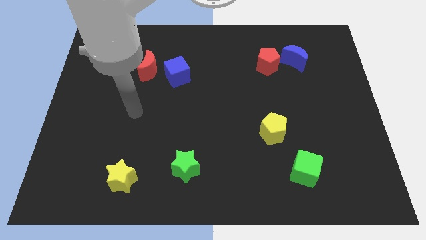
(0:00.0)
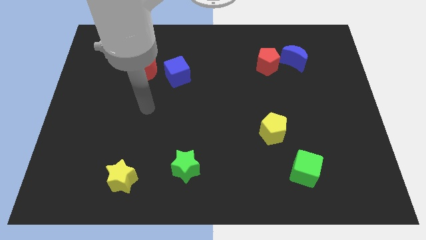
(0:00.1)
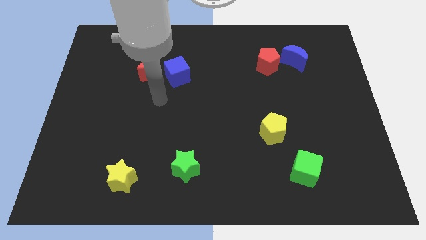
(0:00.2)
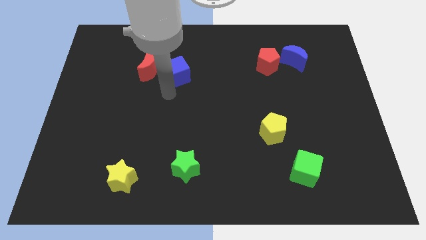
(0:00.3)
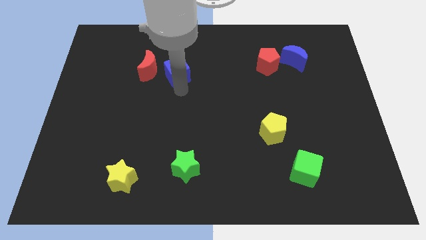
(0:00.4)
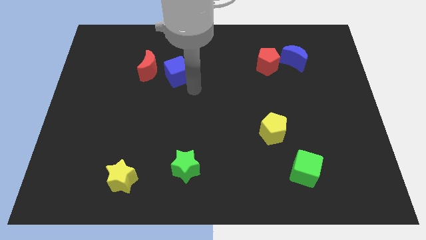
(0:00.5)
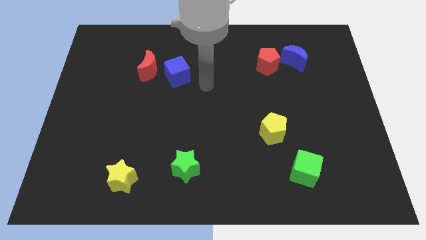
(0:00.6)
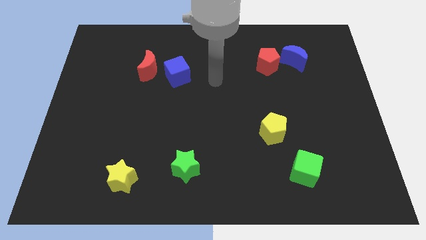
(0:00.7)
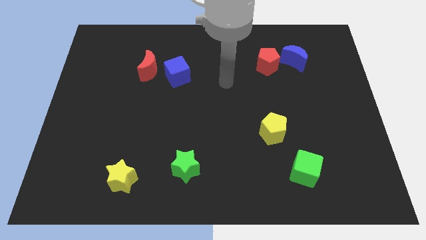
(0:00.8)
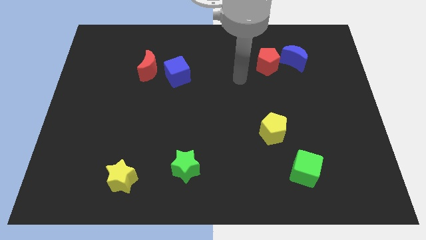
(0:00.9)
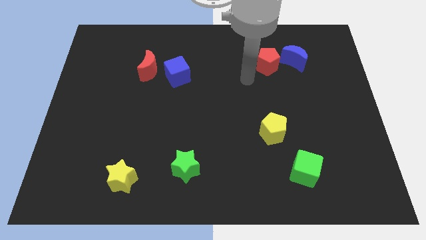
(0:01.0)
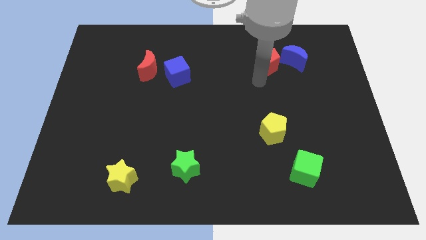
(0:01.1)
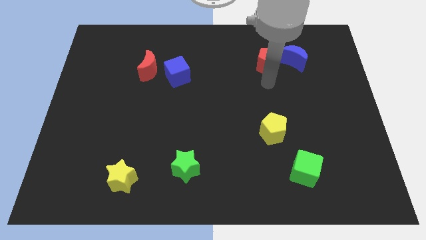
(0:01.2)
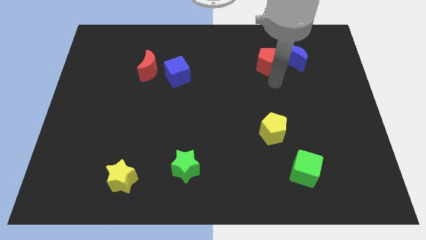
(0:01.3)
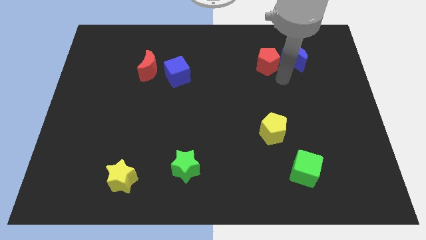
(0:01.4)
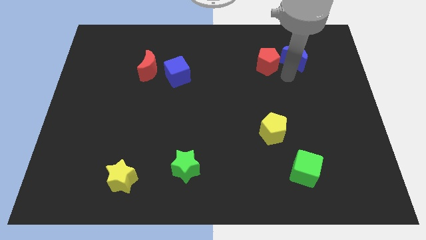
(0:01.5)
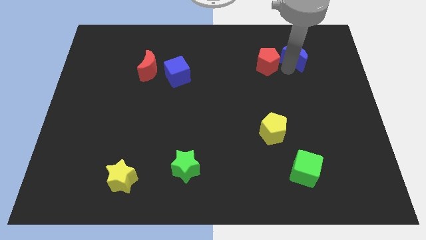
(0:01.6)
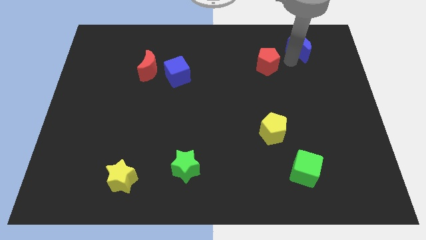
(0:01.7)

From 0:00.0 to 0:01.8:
pull the red pentagon apart from the blue moon

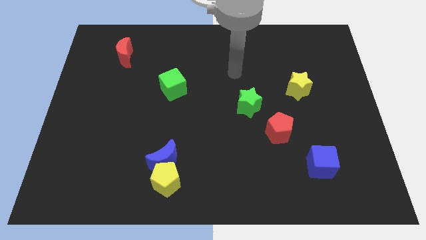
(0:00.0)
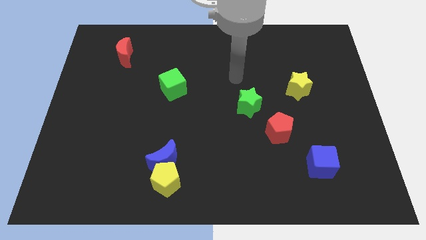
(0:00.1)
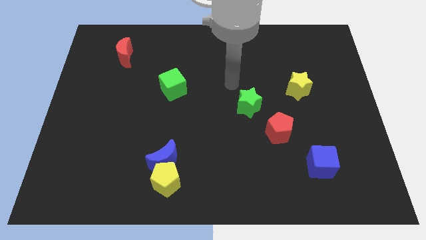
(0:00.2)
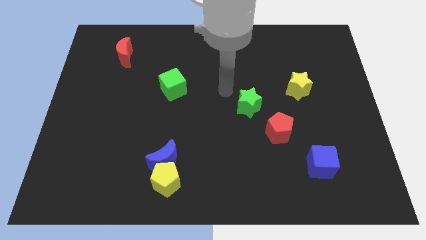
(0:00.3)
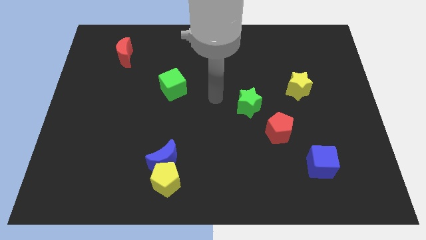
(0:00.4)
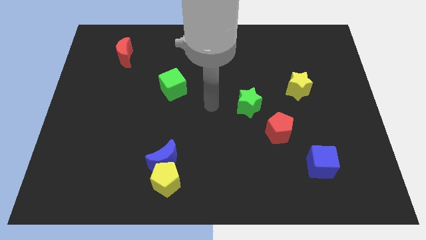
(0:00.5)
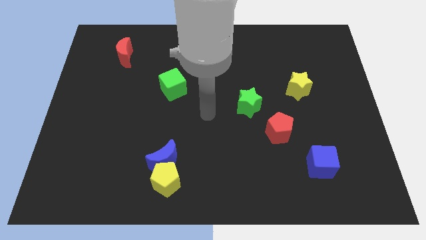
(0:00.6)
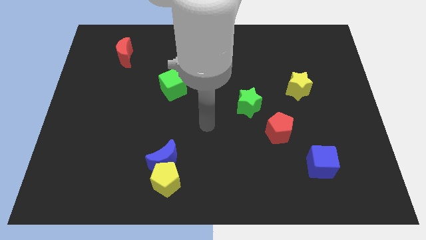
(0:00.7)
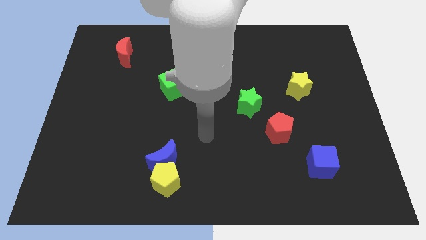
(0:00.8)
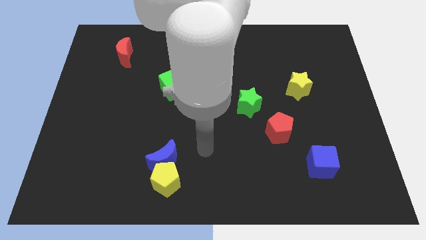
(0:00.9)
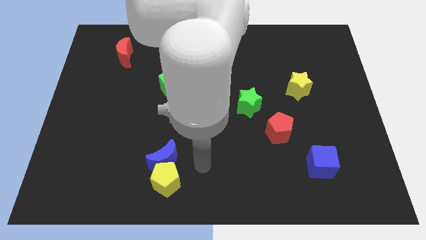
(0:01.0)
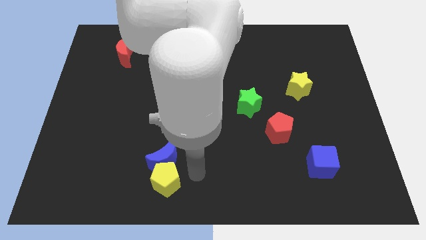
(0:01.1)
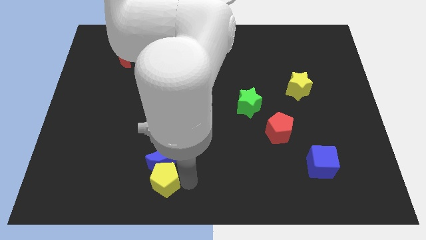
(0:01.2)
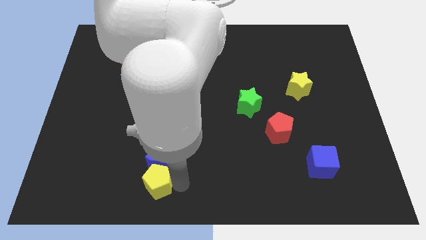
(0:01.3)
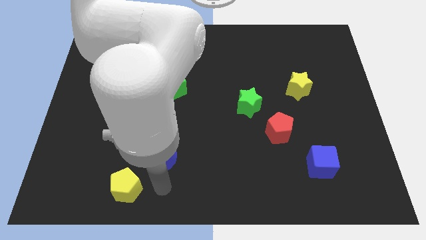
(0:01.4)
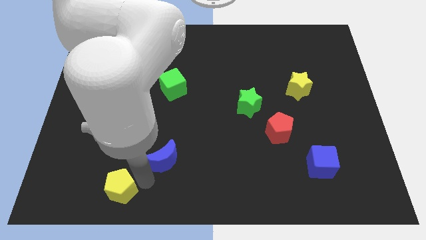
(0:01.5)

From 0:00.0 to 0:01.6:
move the blue moon away from the yellow pentagon

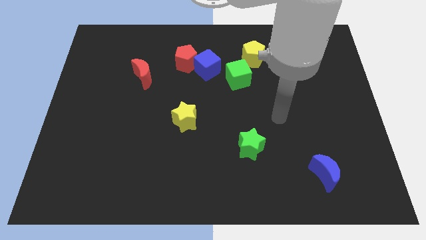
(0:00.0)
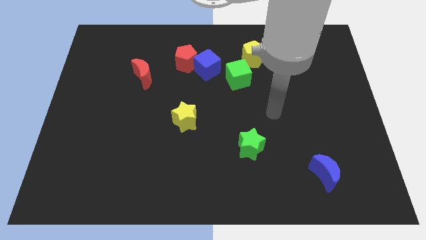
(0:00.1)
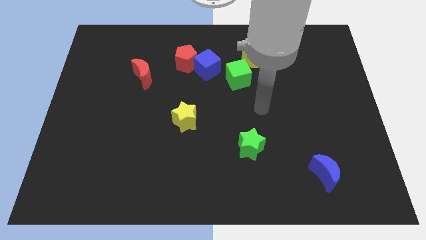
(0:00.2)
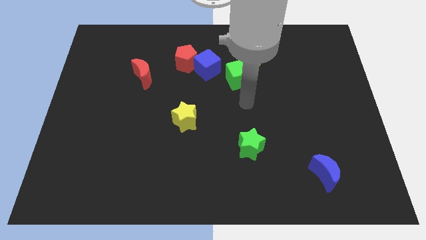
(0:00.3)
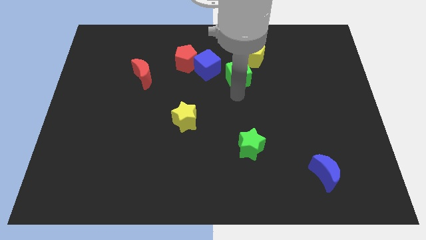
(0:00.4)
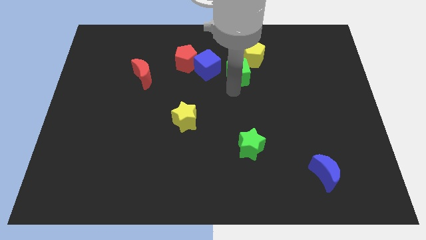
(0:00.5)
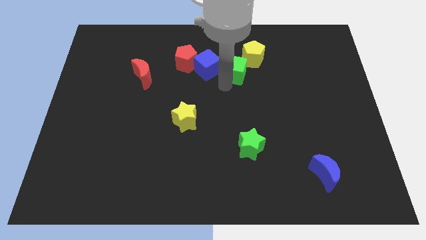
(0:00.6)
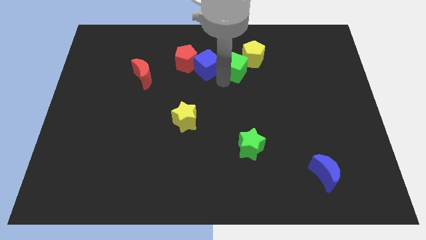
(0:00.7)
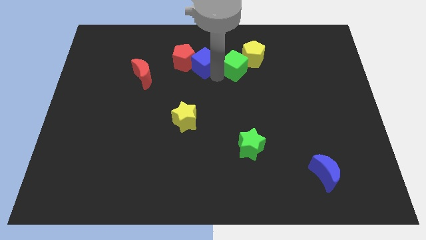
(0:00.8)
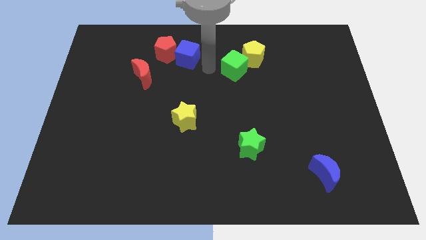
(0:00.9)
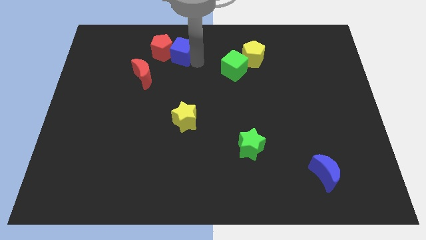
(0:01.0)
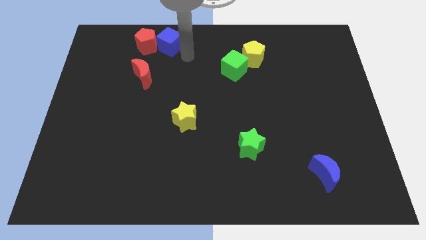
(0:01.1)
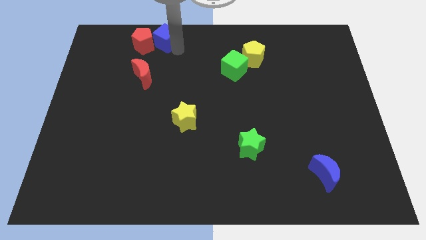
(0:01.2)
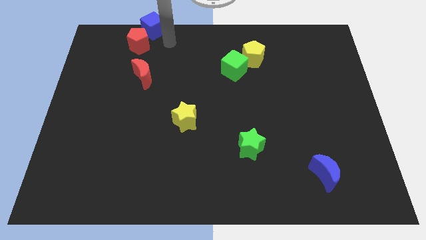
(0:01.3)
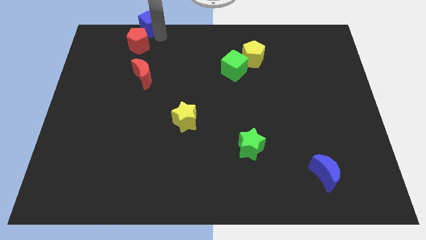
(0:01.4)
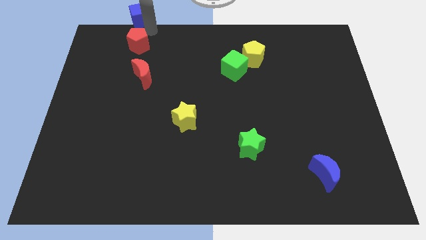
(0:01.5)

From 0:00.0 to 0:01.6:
move the red pentagon away from the blue cube

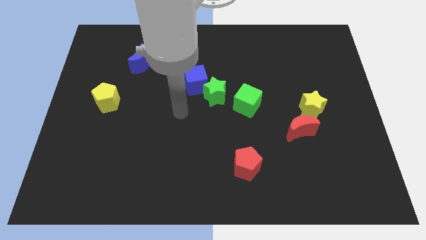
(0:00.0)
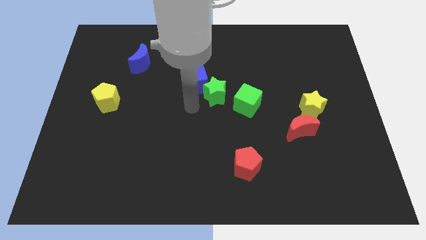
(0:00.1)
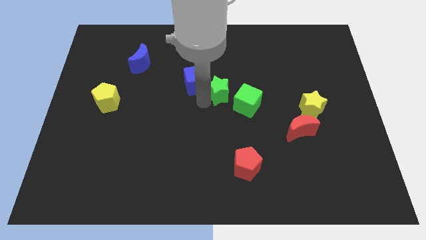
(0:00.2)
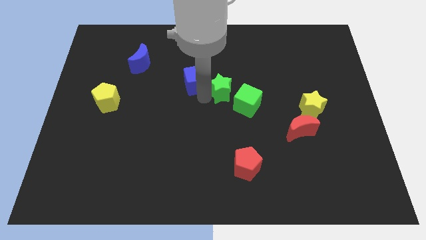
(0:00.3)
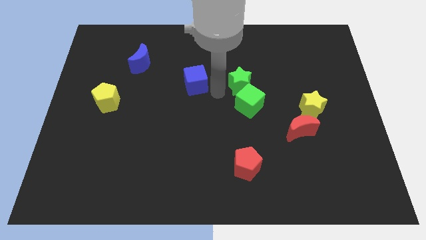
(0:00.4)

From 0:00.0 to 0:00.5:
pull the blue cube apart from the green star

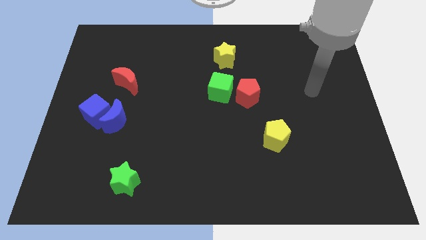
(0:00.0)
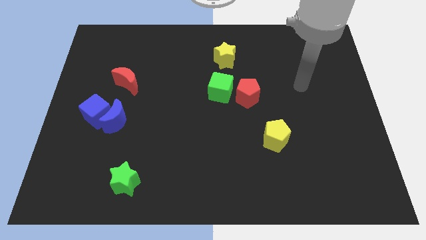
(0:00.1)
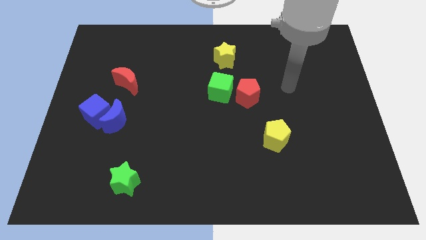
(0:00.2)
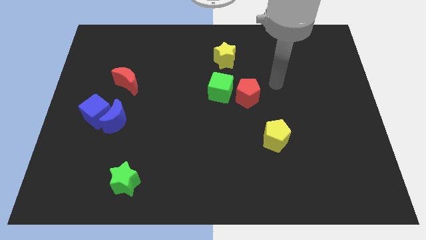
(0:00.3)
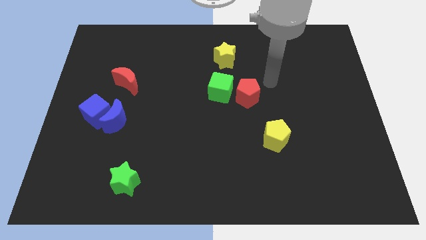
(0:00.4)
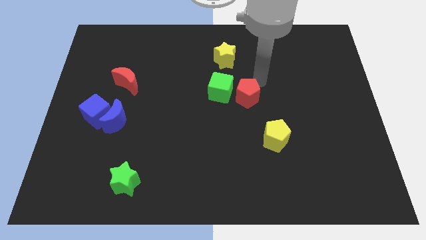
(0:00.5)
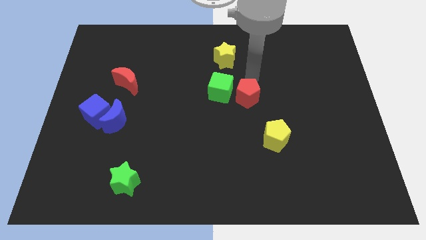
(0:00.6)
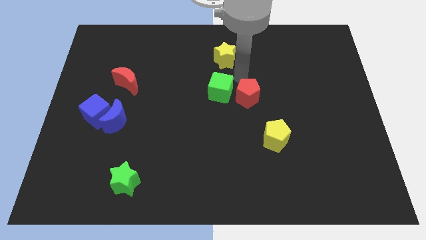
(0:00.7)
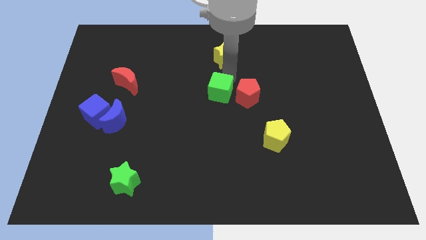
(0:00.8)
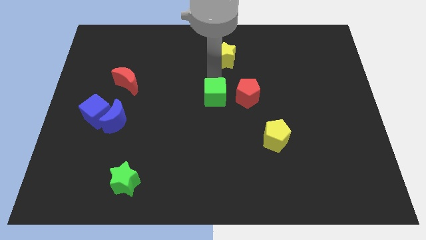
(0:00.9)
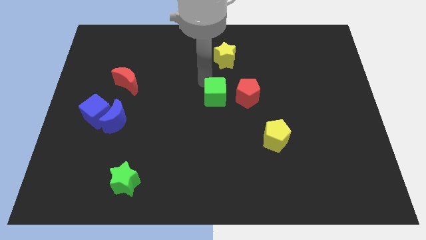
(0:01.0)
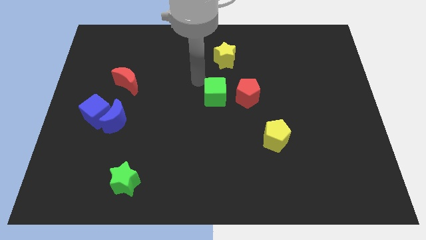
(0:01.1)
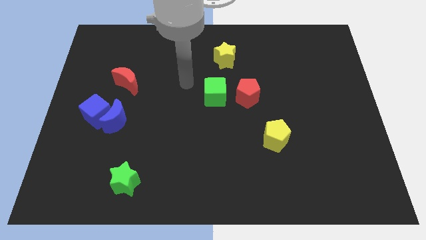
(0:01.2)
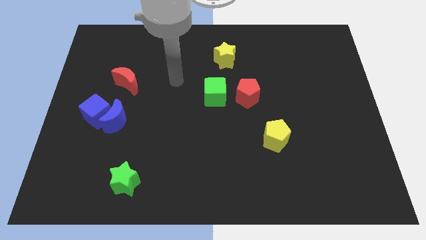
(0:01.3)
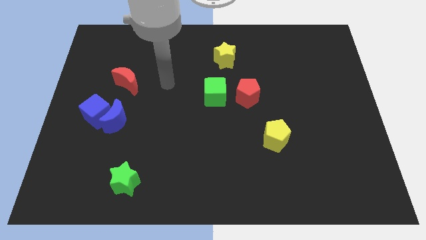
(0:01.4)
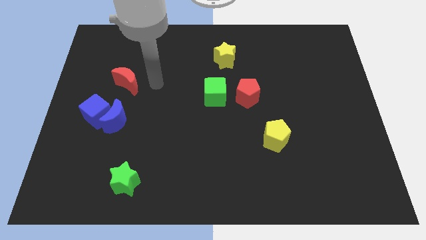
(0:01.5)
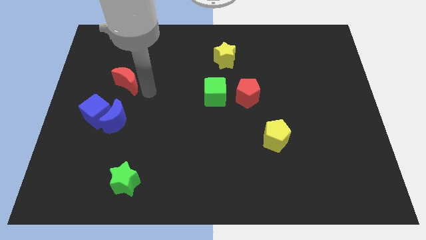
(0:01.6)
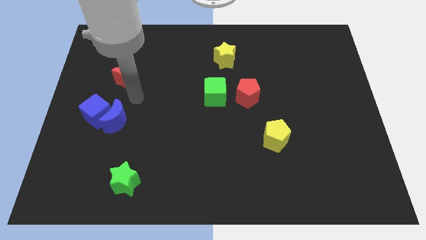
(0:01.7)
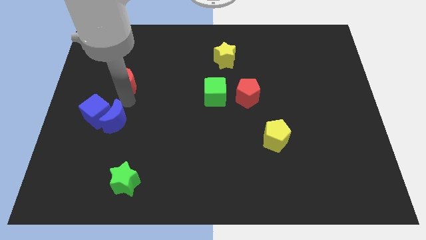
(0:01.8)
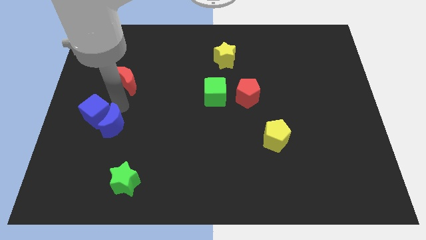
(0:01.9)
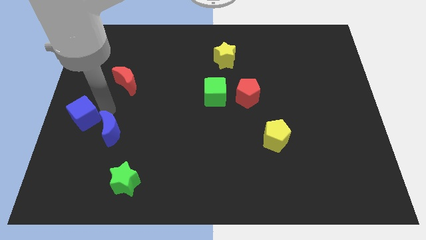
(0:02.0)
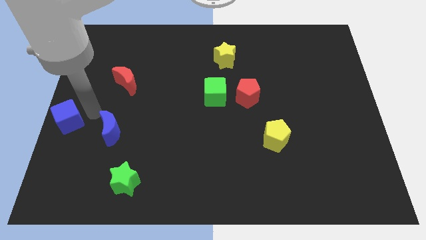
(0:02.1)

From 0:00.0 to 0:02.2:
pull the blue moon apart from the blue cube

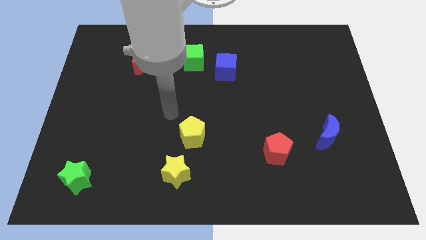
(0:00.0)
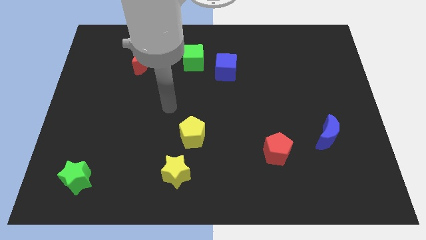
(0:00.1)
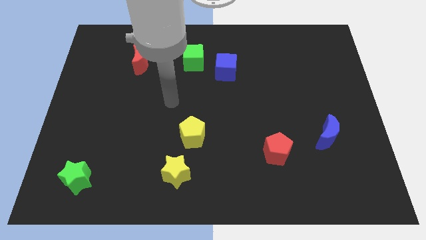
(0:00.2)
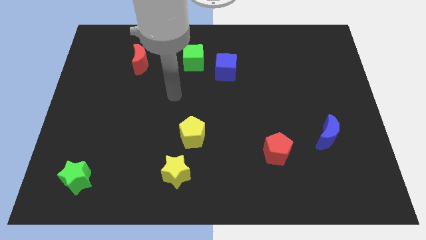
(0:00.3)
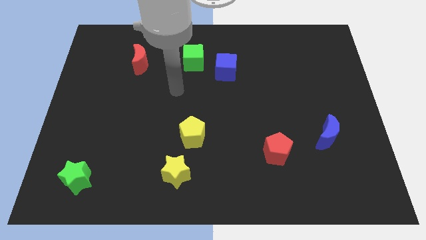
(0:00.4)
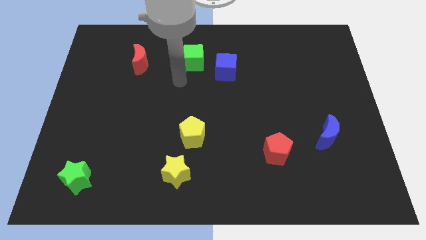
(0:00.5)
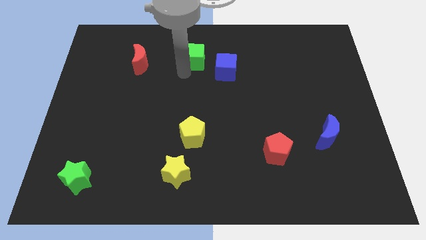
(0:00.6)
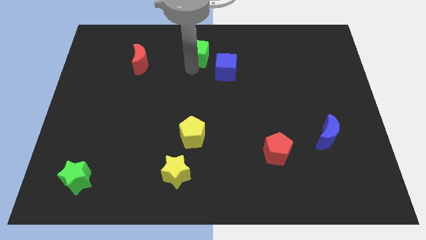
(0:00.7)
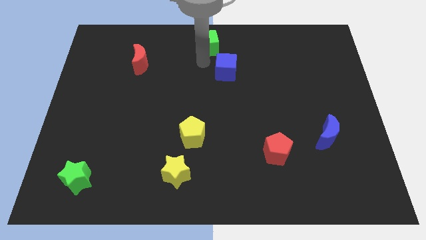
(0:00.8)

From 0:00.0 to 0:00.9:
separate the blue cube from the green cube

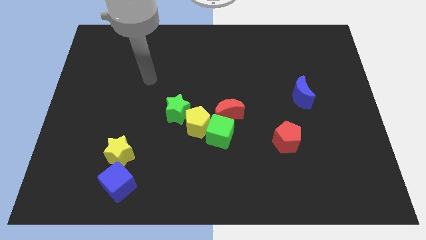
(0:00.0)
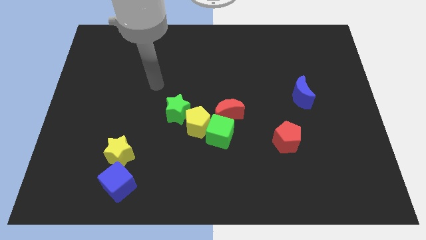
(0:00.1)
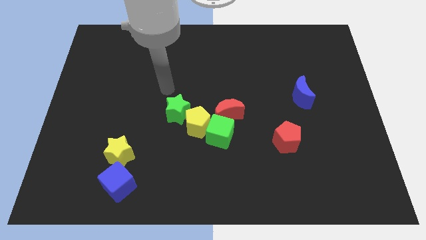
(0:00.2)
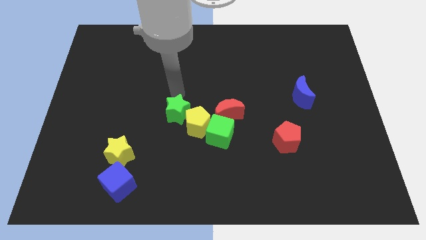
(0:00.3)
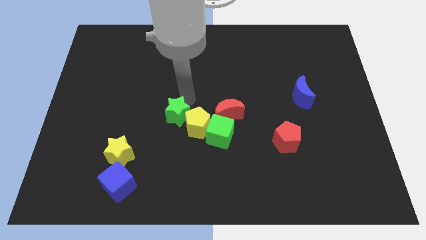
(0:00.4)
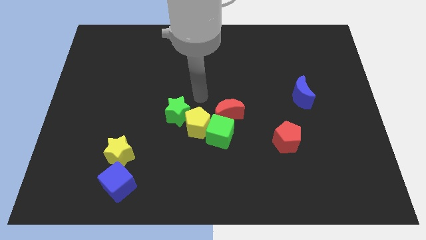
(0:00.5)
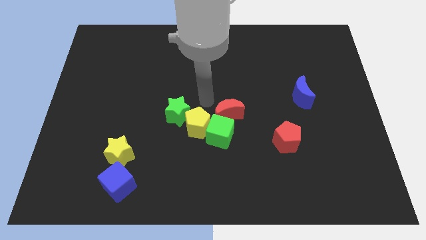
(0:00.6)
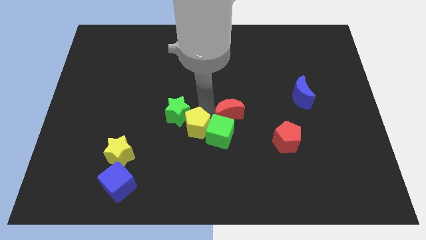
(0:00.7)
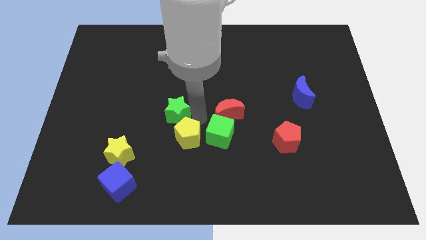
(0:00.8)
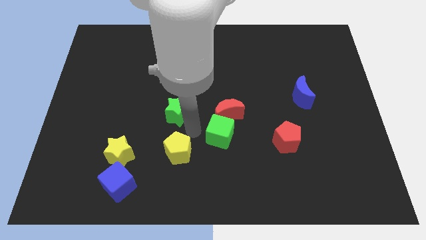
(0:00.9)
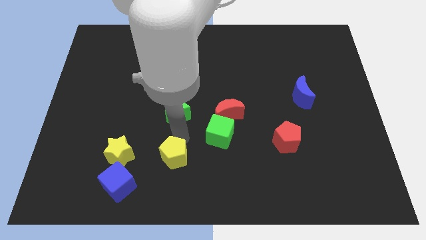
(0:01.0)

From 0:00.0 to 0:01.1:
separate the green star from the yellow pentagon
